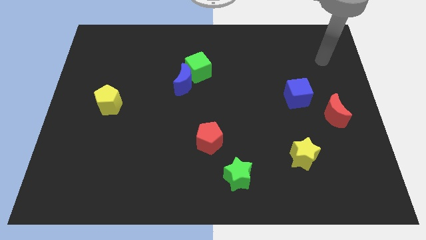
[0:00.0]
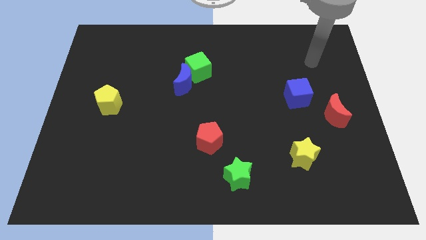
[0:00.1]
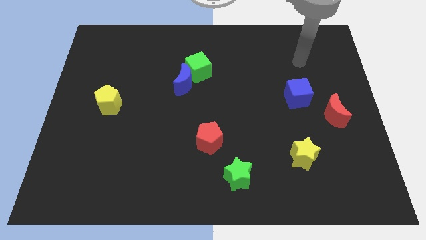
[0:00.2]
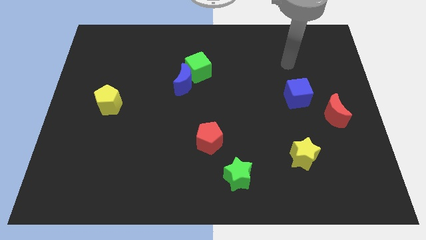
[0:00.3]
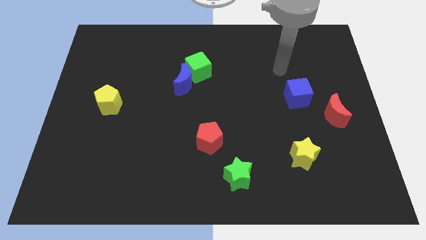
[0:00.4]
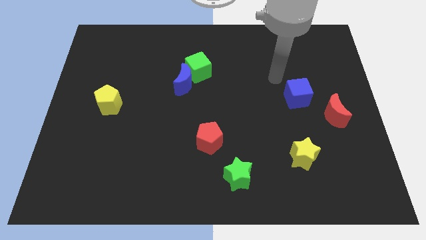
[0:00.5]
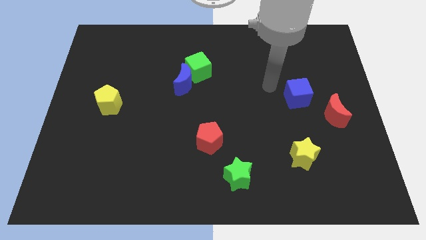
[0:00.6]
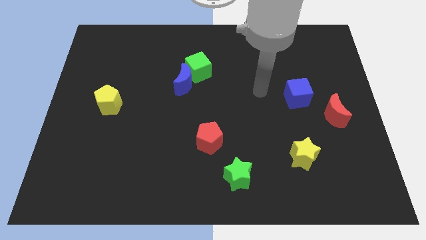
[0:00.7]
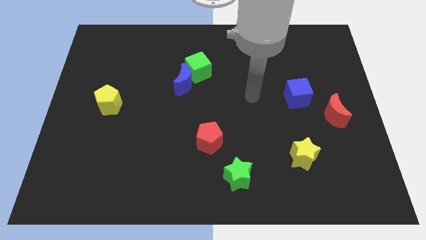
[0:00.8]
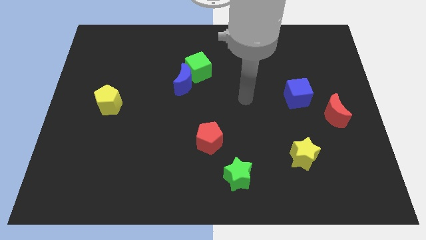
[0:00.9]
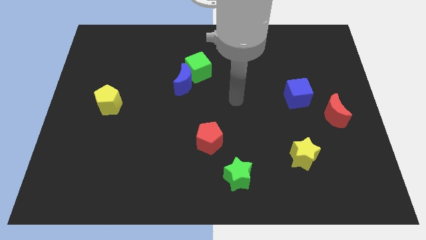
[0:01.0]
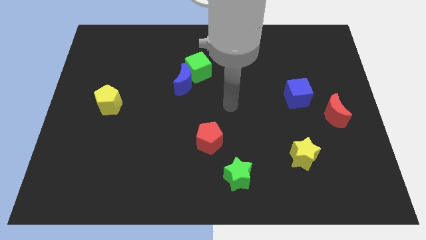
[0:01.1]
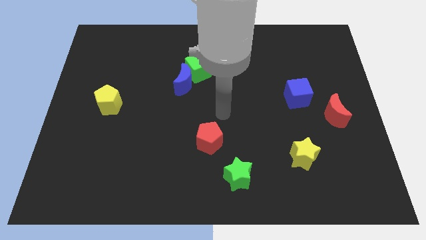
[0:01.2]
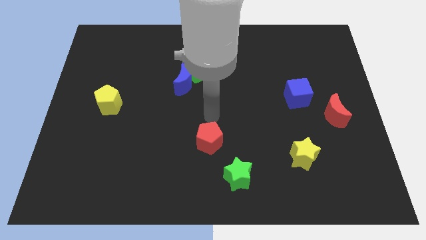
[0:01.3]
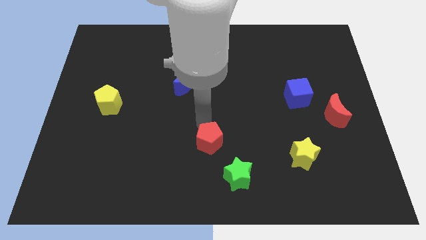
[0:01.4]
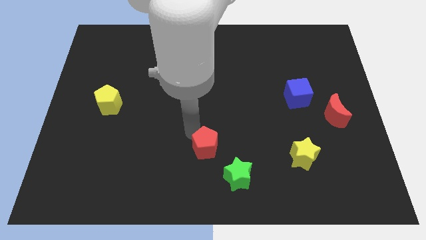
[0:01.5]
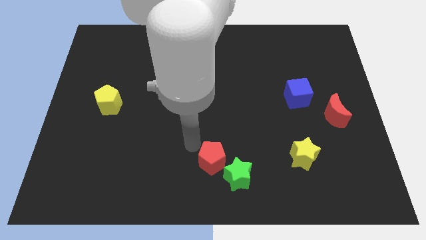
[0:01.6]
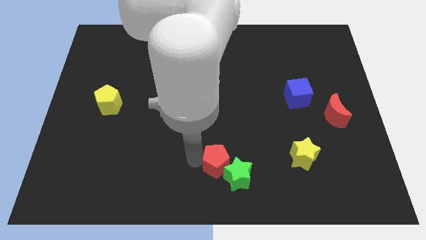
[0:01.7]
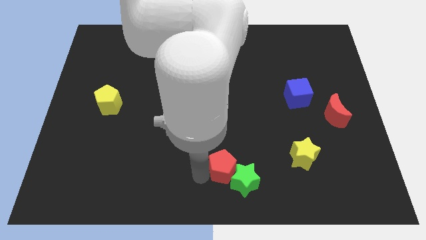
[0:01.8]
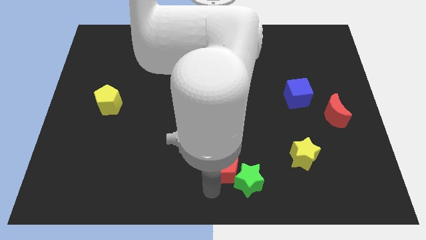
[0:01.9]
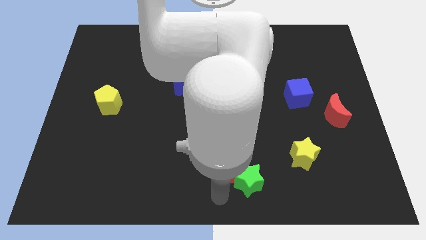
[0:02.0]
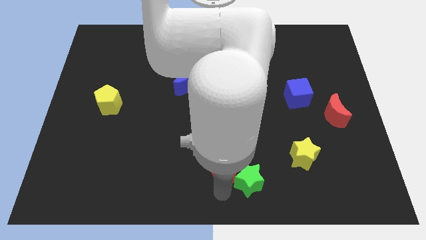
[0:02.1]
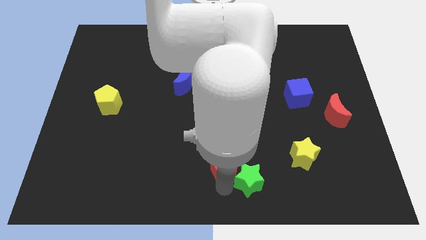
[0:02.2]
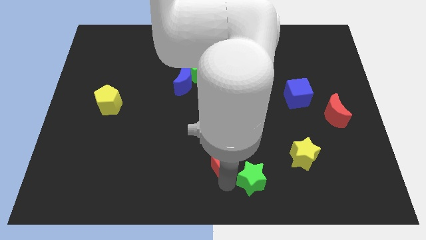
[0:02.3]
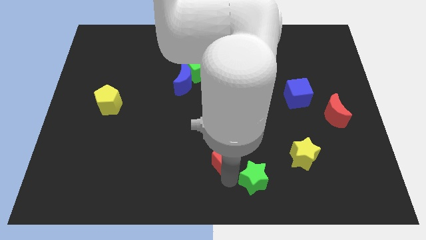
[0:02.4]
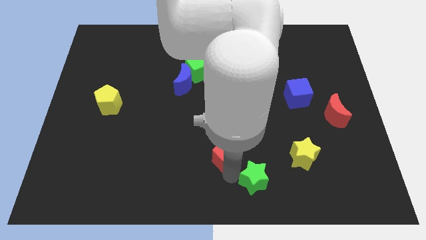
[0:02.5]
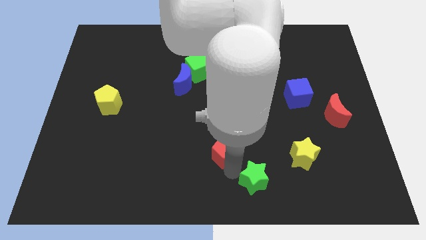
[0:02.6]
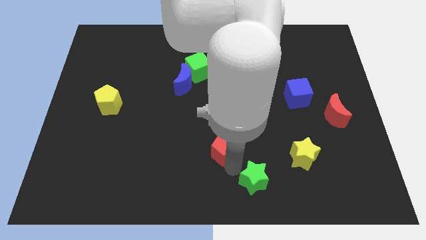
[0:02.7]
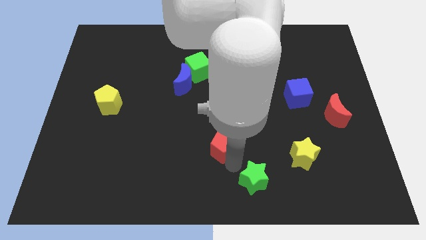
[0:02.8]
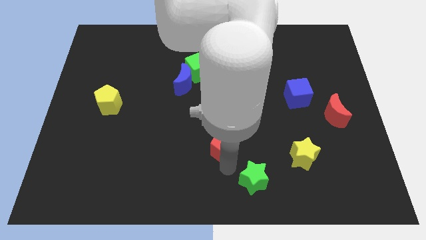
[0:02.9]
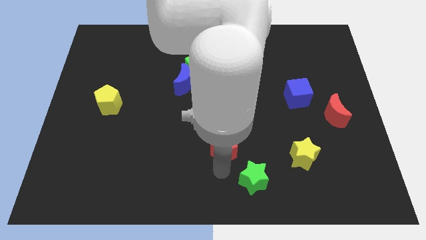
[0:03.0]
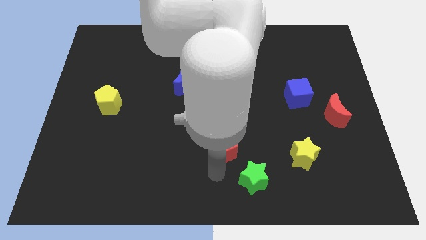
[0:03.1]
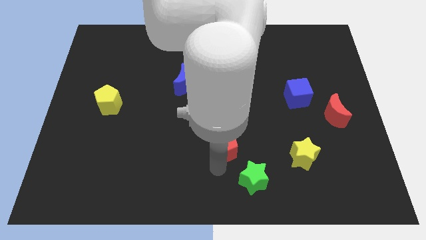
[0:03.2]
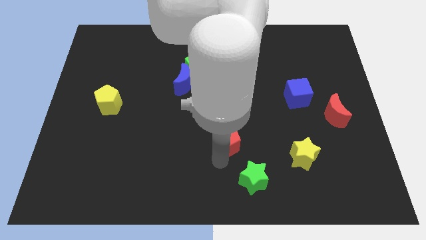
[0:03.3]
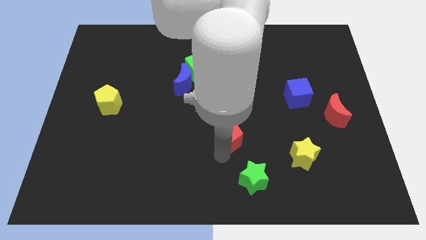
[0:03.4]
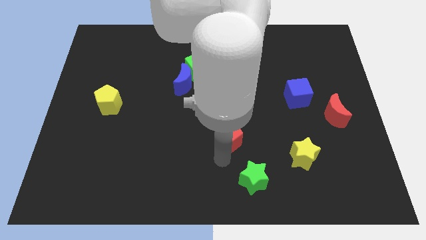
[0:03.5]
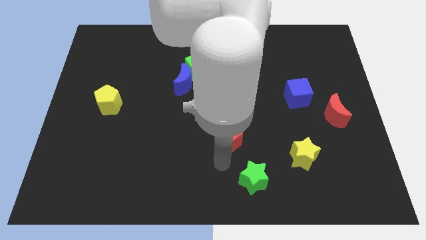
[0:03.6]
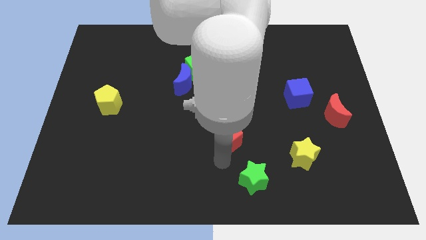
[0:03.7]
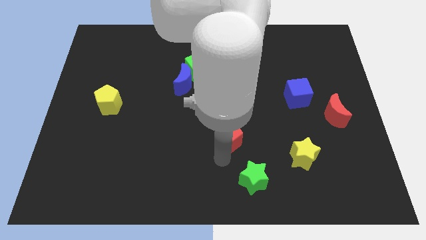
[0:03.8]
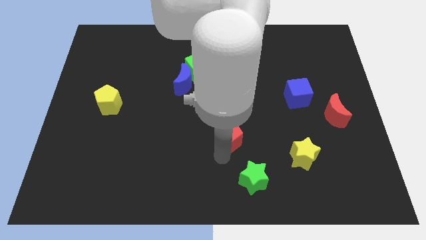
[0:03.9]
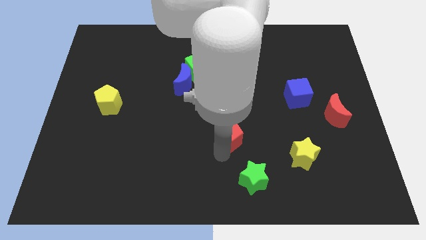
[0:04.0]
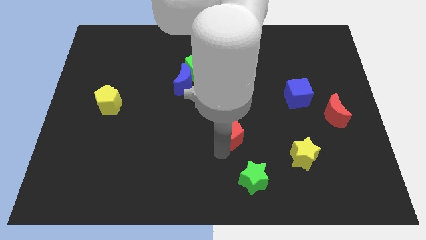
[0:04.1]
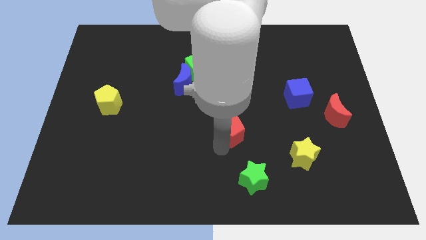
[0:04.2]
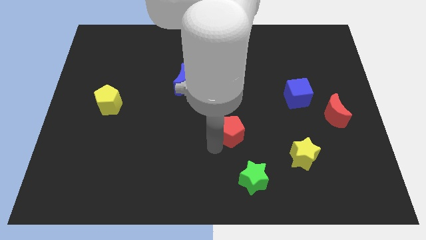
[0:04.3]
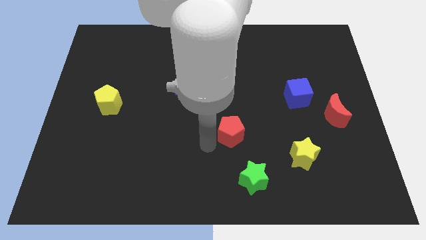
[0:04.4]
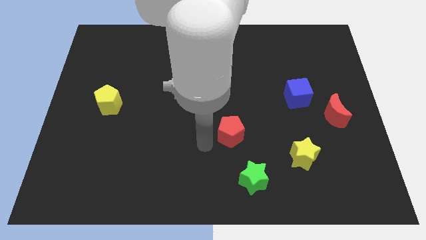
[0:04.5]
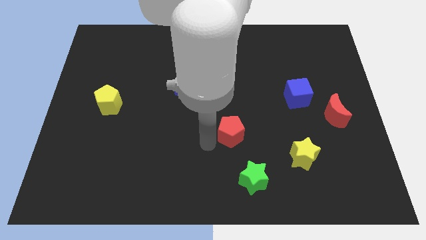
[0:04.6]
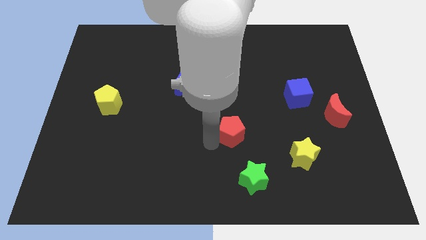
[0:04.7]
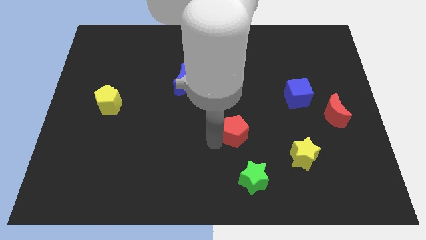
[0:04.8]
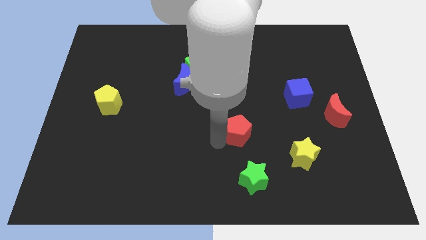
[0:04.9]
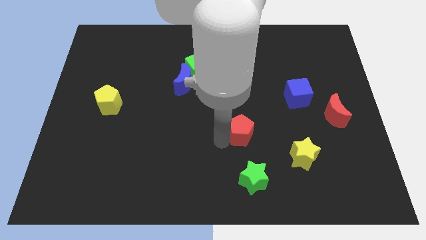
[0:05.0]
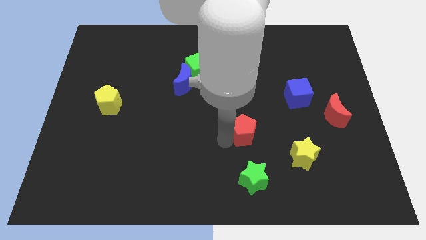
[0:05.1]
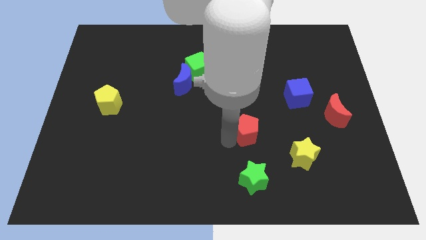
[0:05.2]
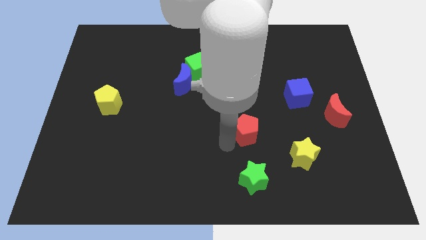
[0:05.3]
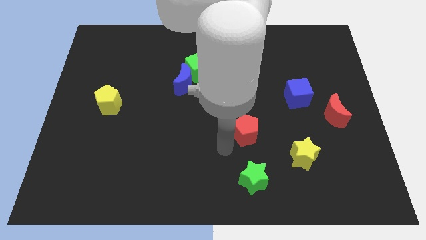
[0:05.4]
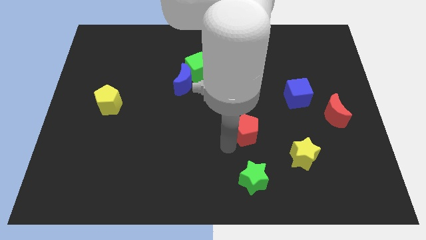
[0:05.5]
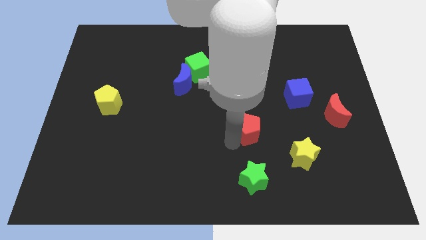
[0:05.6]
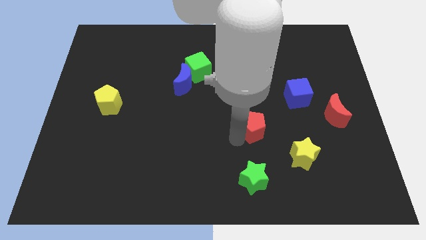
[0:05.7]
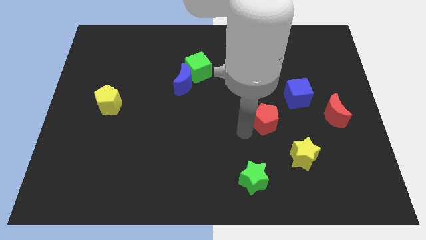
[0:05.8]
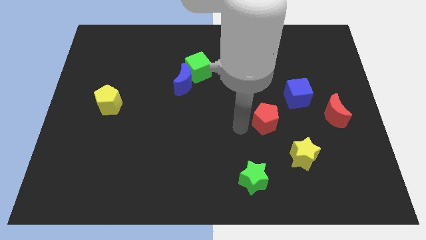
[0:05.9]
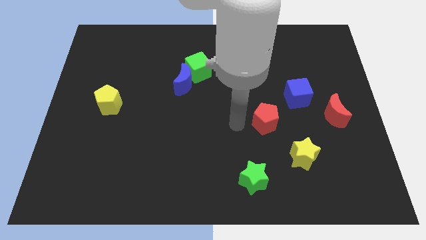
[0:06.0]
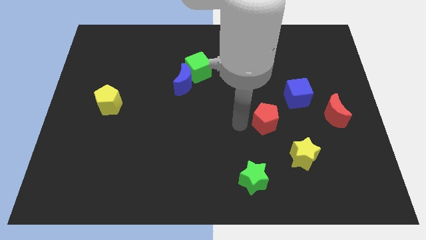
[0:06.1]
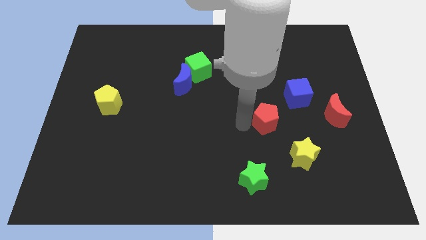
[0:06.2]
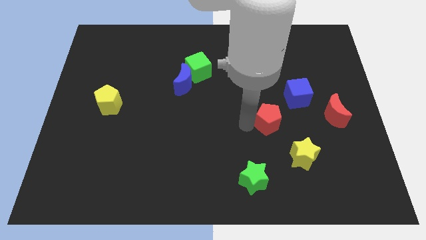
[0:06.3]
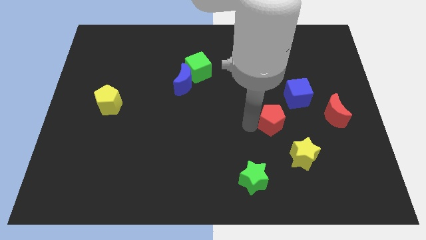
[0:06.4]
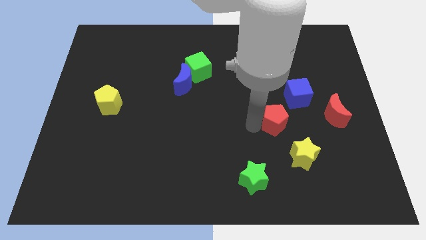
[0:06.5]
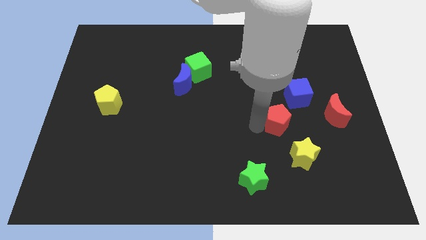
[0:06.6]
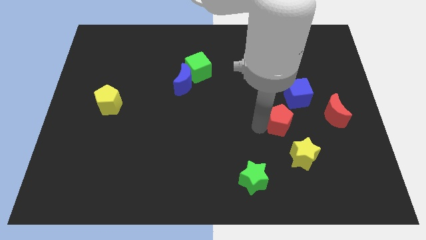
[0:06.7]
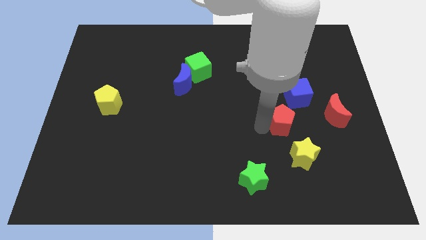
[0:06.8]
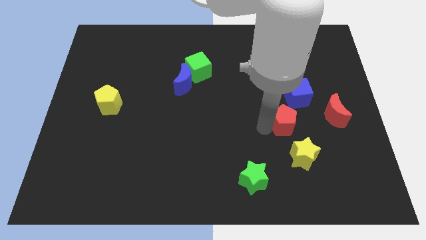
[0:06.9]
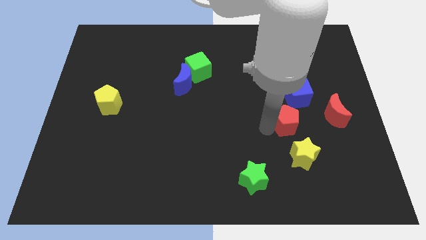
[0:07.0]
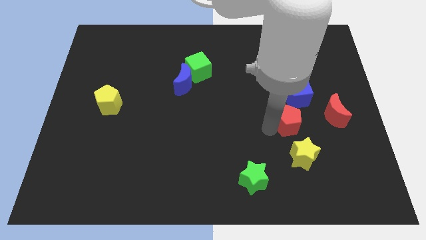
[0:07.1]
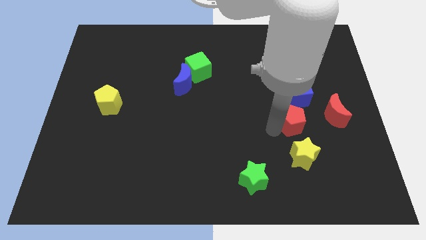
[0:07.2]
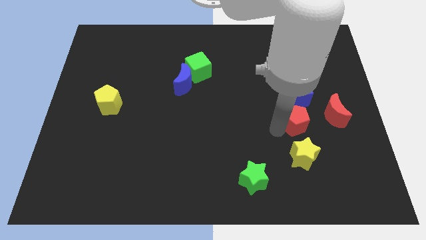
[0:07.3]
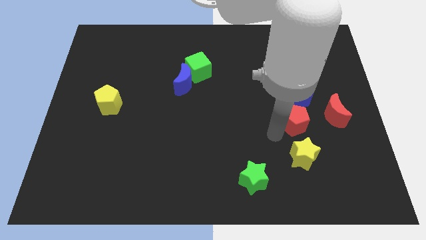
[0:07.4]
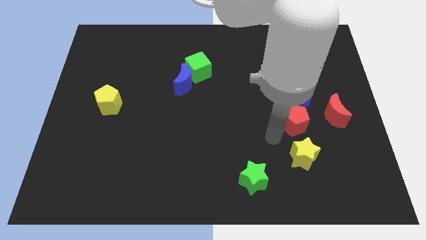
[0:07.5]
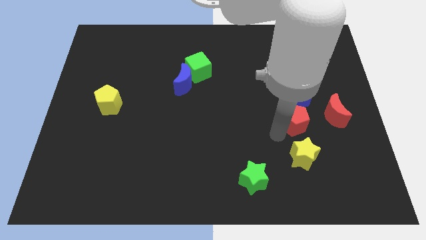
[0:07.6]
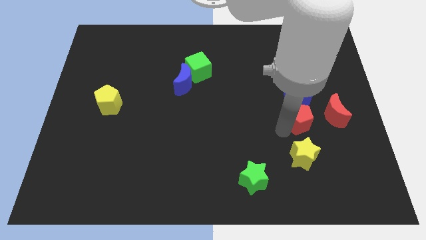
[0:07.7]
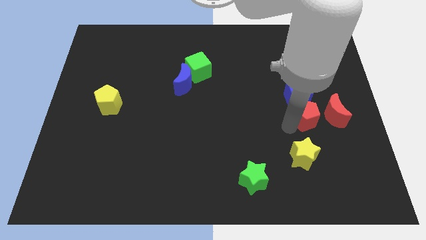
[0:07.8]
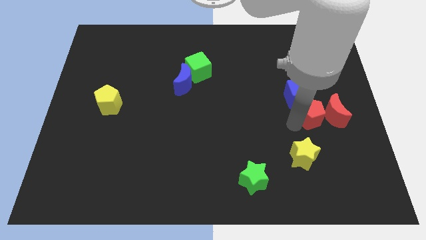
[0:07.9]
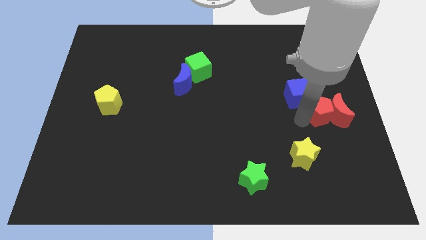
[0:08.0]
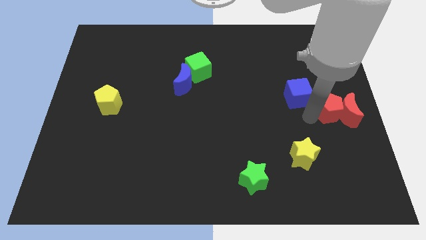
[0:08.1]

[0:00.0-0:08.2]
put the red pentagon to the right side
